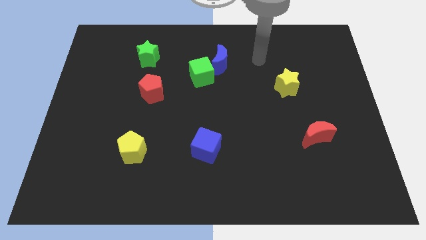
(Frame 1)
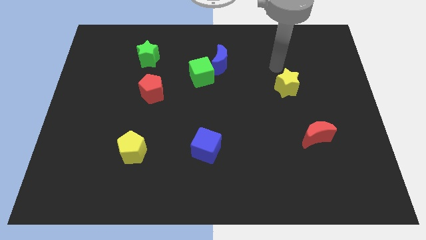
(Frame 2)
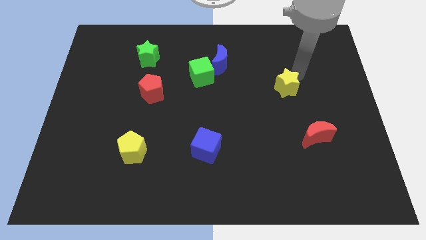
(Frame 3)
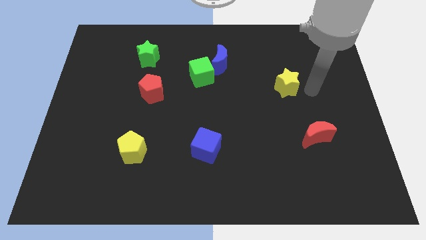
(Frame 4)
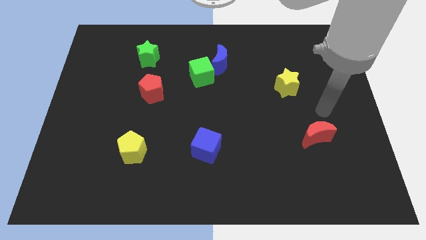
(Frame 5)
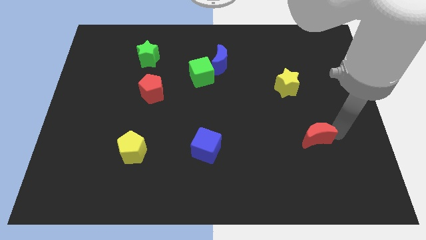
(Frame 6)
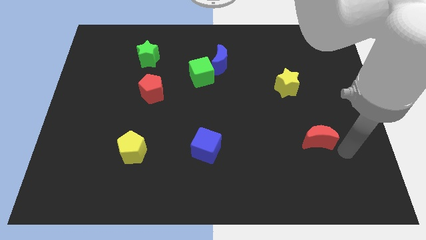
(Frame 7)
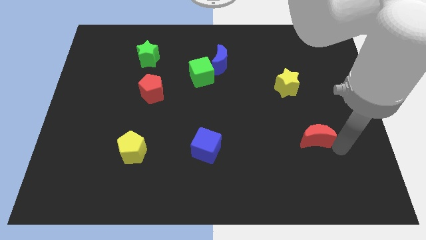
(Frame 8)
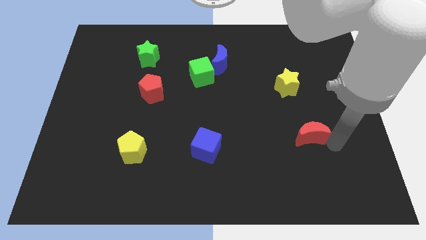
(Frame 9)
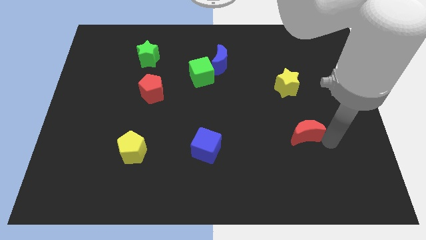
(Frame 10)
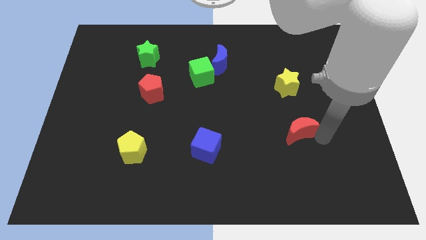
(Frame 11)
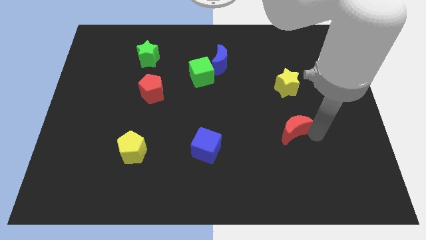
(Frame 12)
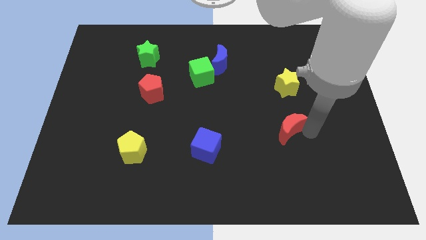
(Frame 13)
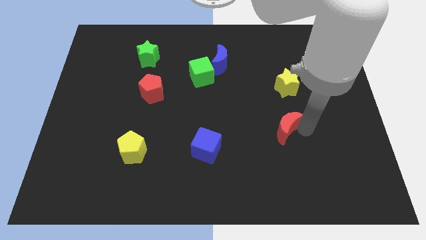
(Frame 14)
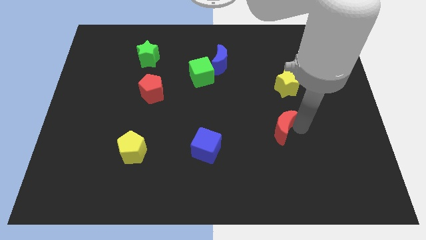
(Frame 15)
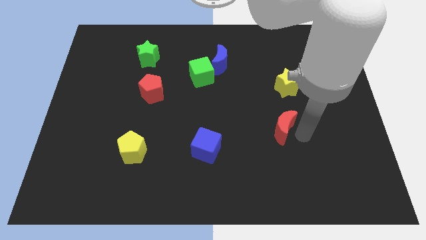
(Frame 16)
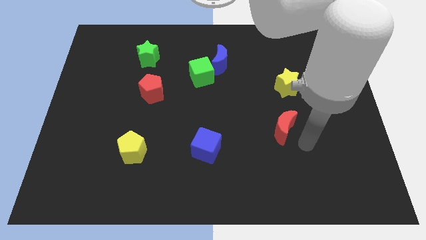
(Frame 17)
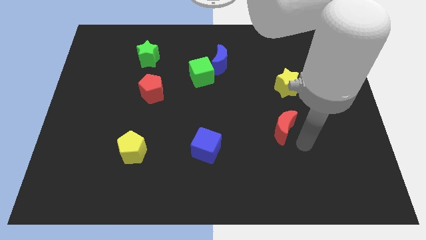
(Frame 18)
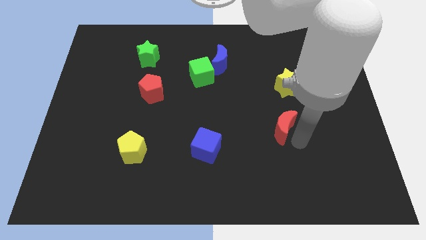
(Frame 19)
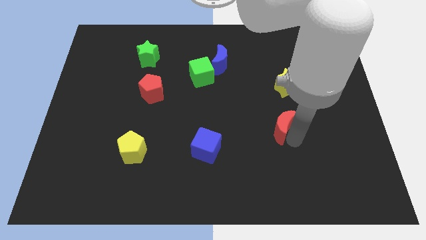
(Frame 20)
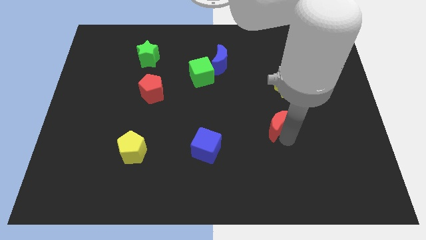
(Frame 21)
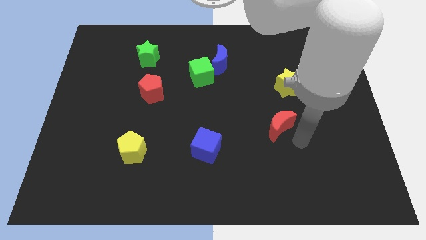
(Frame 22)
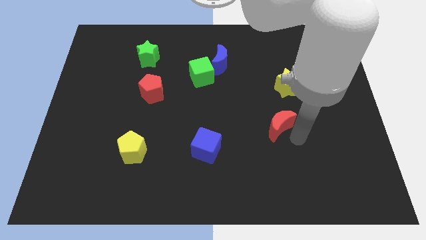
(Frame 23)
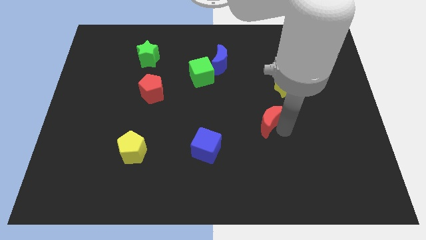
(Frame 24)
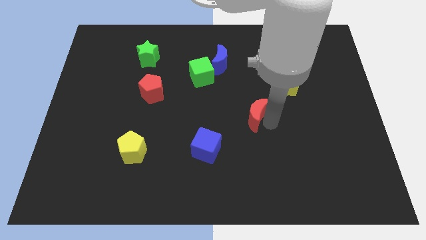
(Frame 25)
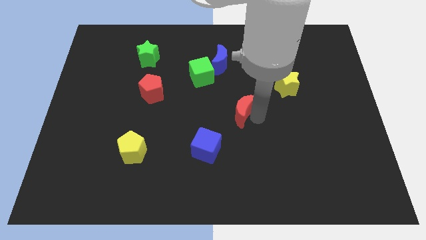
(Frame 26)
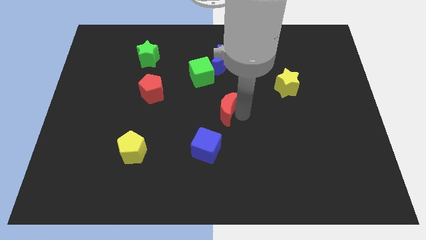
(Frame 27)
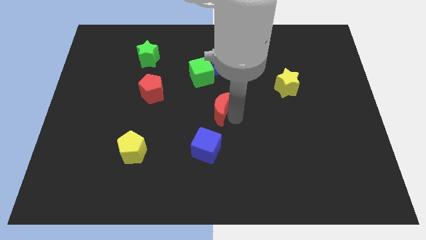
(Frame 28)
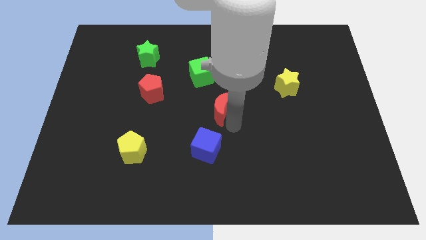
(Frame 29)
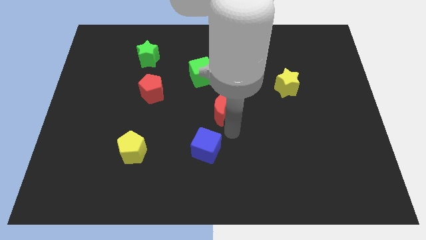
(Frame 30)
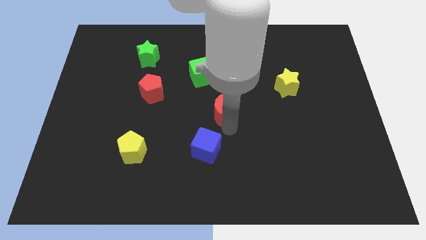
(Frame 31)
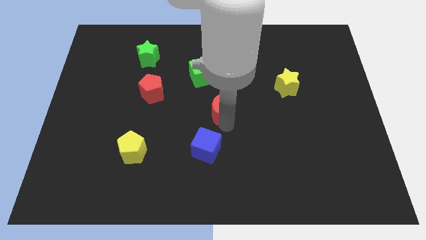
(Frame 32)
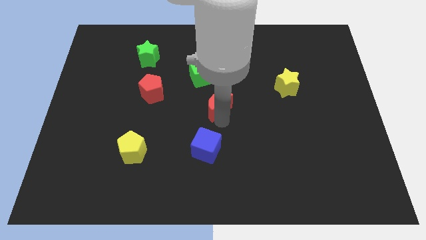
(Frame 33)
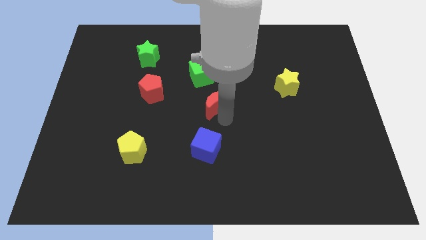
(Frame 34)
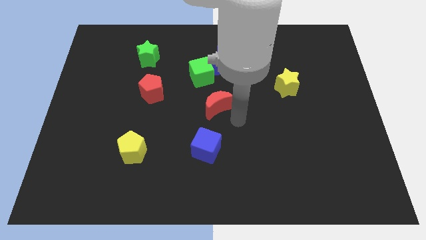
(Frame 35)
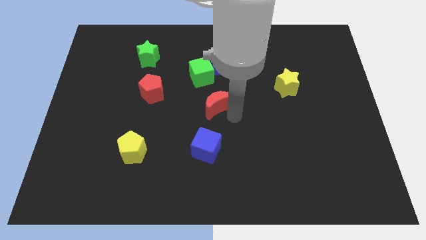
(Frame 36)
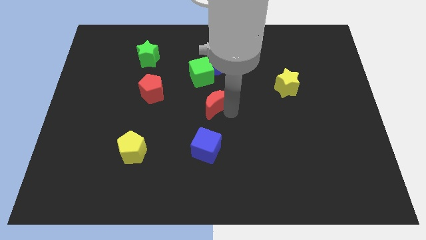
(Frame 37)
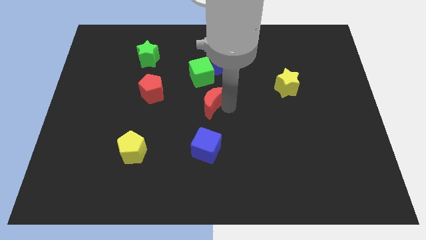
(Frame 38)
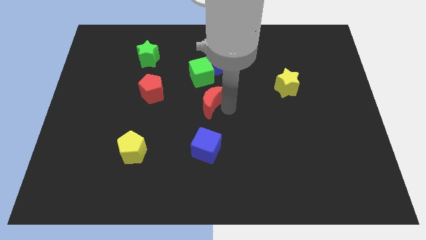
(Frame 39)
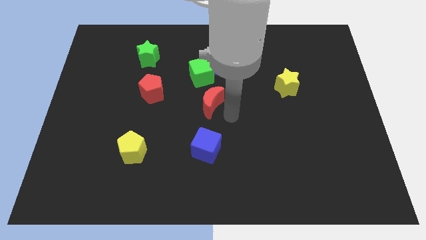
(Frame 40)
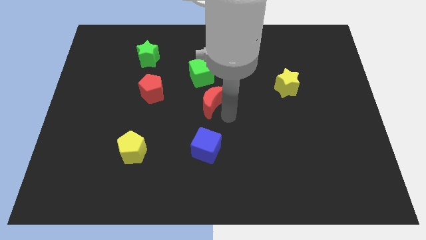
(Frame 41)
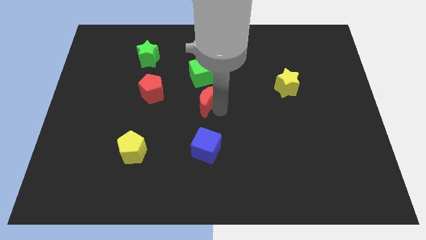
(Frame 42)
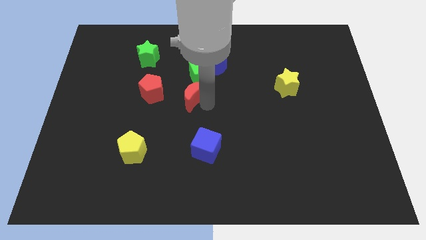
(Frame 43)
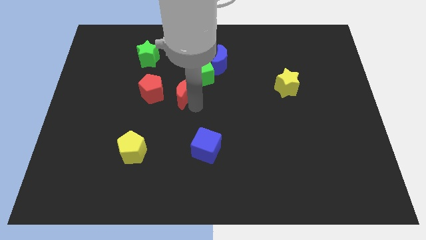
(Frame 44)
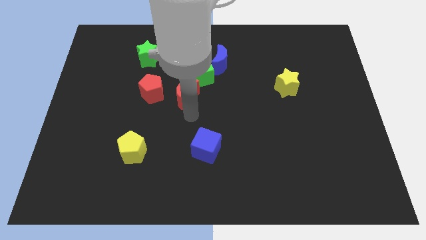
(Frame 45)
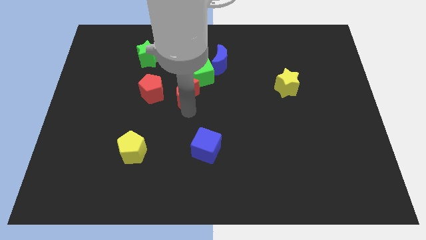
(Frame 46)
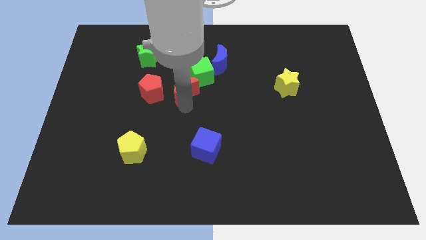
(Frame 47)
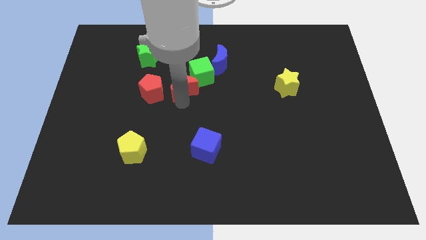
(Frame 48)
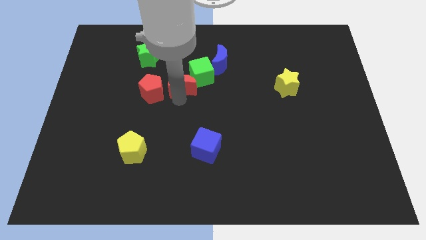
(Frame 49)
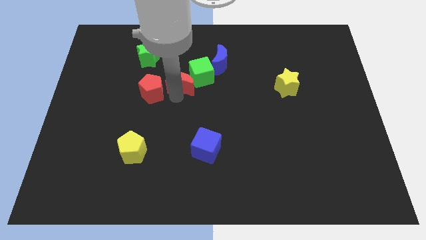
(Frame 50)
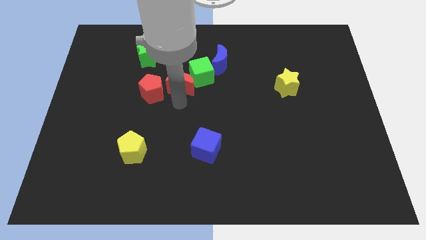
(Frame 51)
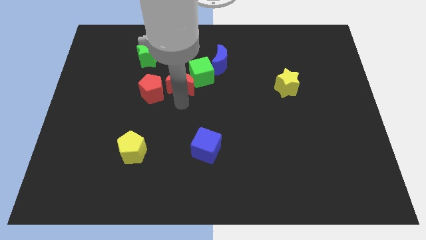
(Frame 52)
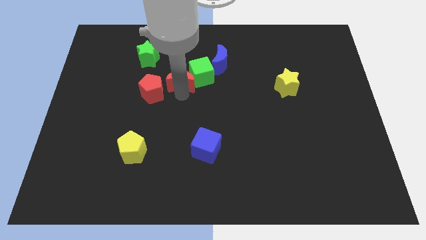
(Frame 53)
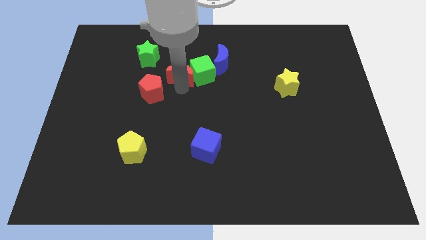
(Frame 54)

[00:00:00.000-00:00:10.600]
put the red moon diagonally up and to the left of the green cube

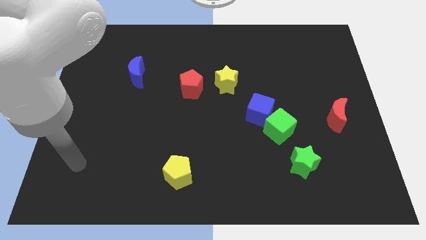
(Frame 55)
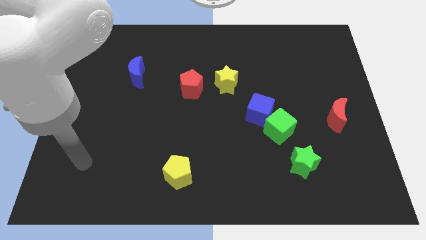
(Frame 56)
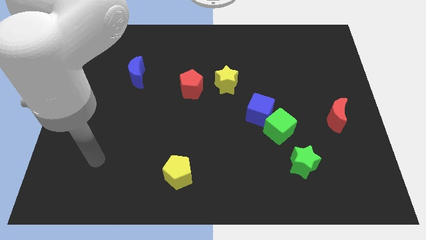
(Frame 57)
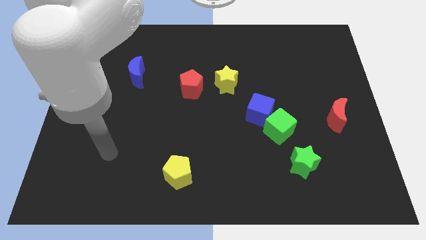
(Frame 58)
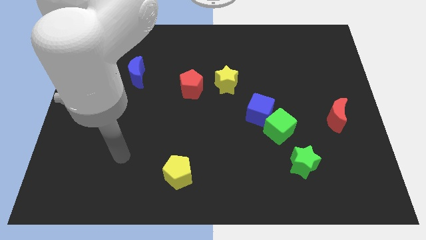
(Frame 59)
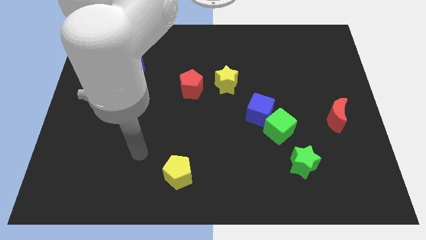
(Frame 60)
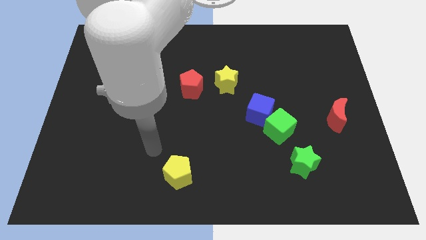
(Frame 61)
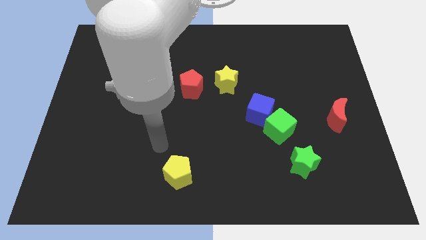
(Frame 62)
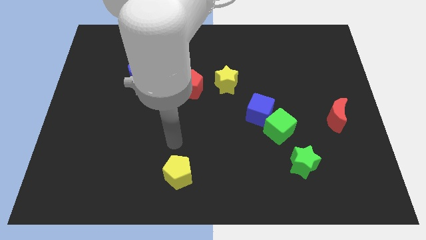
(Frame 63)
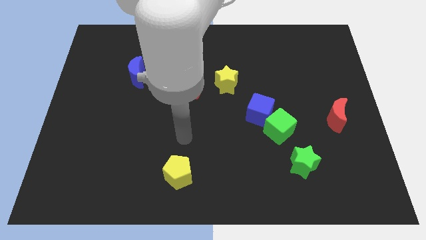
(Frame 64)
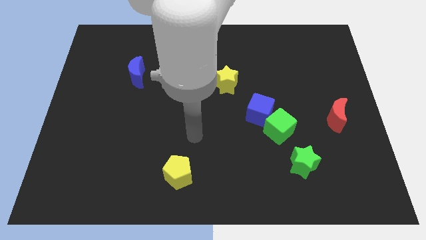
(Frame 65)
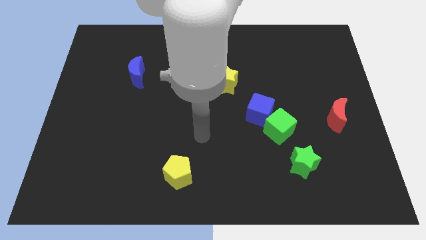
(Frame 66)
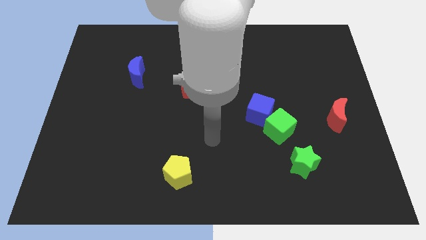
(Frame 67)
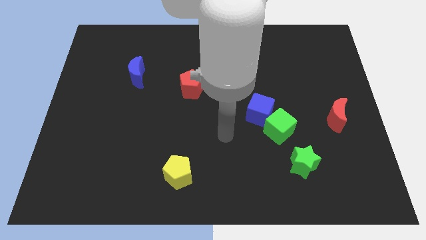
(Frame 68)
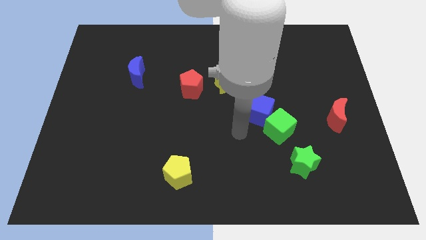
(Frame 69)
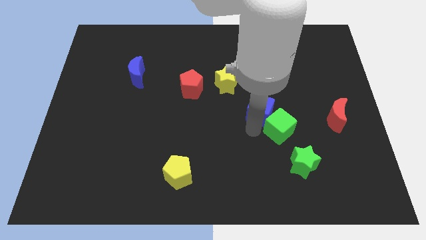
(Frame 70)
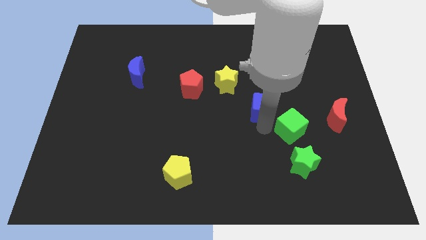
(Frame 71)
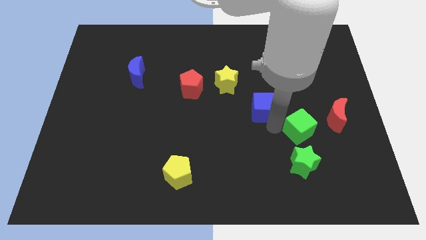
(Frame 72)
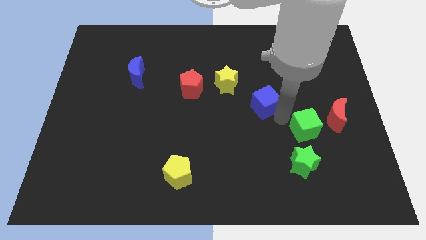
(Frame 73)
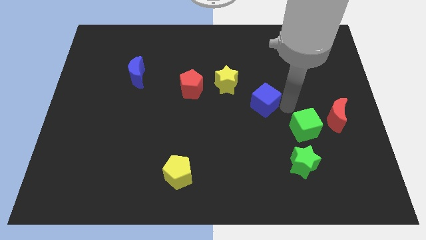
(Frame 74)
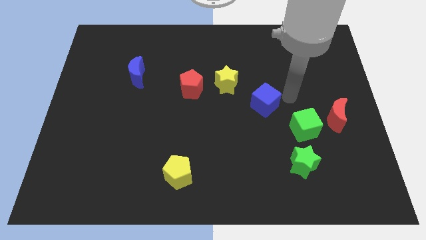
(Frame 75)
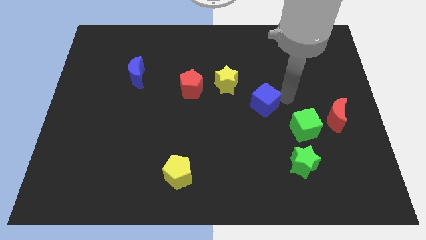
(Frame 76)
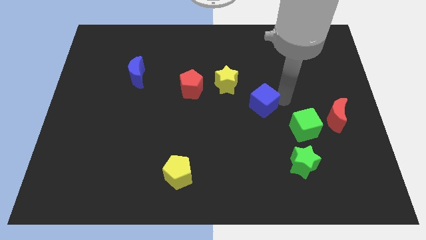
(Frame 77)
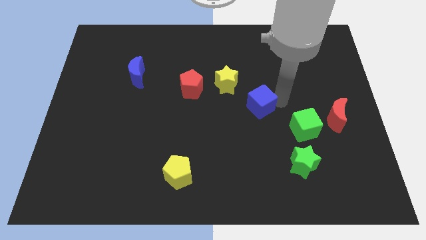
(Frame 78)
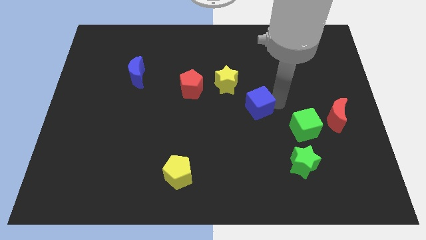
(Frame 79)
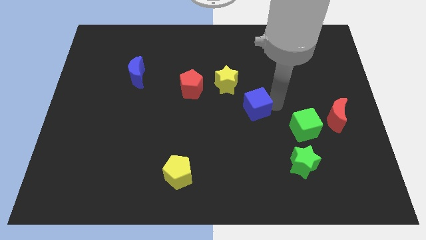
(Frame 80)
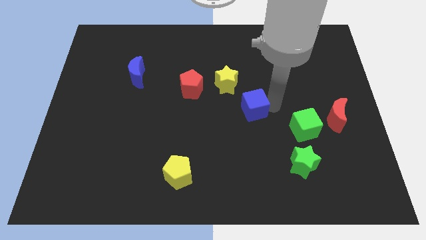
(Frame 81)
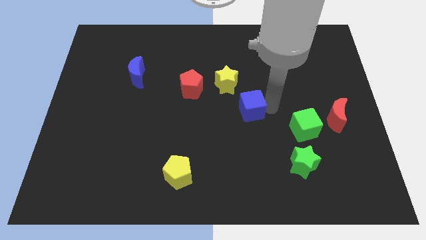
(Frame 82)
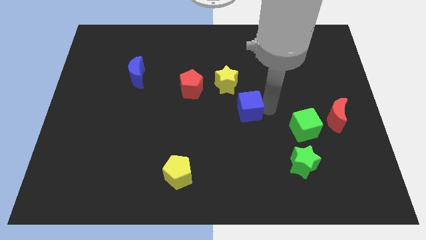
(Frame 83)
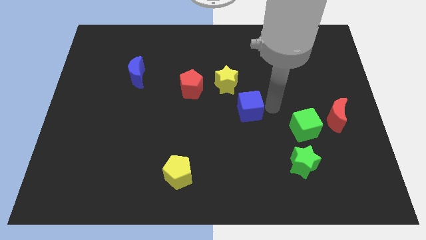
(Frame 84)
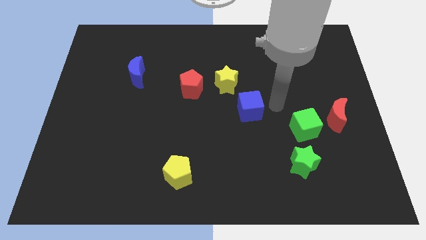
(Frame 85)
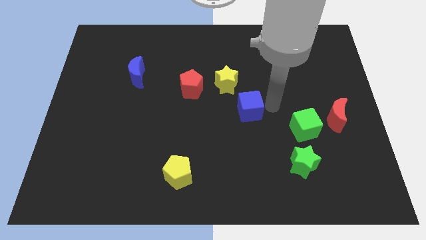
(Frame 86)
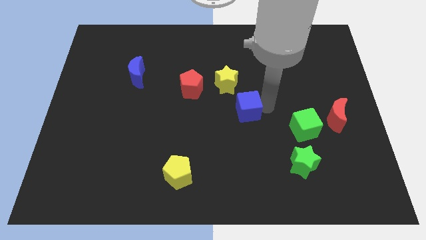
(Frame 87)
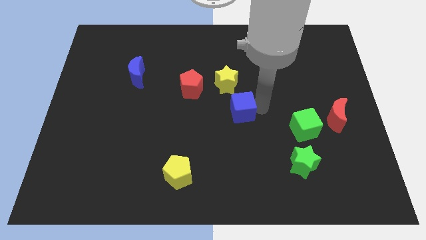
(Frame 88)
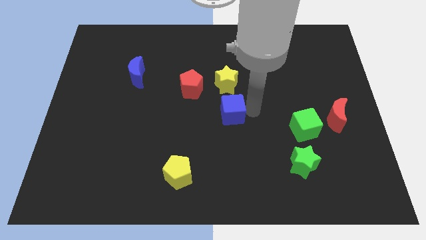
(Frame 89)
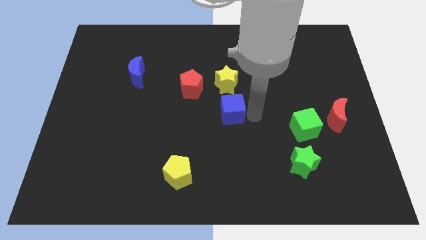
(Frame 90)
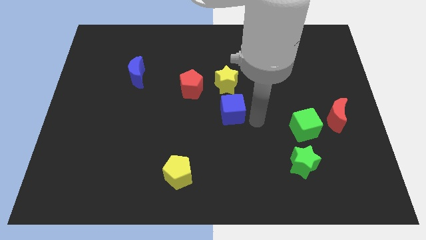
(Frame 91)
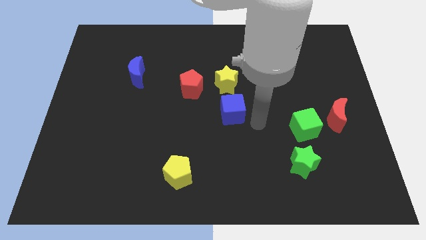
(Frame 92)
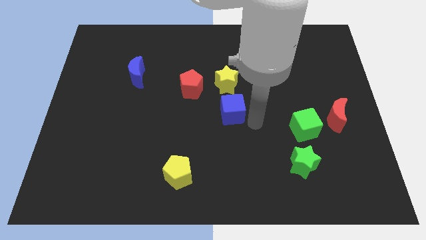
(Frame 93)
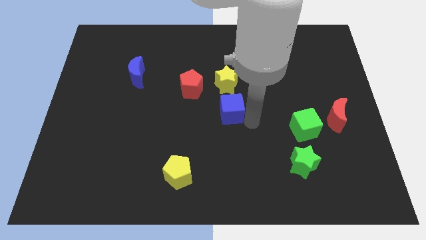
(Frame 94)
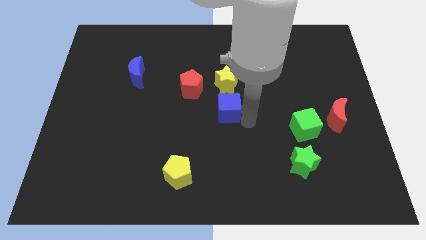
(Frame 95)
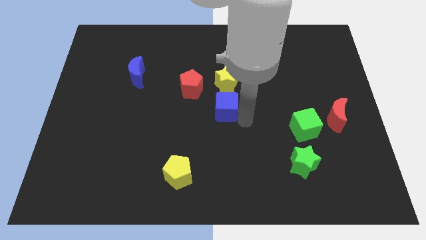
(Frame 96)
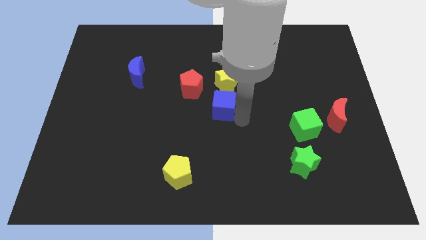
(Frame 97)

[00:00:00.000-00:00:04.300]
move the blue cube to the bottom left side of the yellow star
